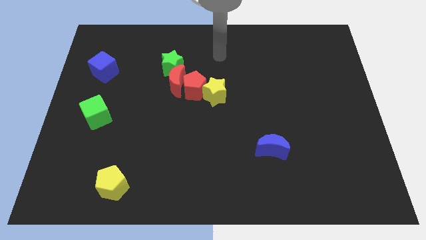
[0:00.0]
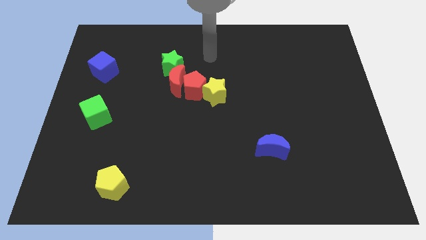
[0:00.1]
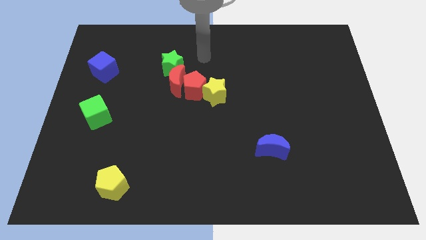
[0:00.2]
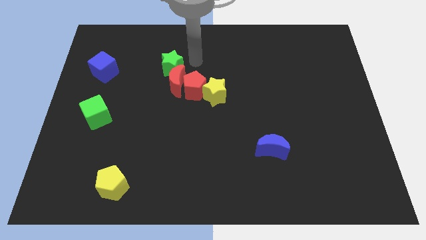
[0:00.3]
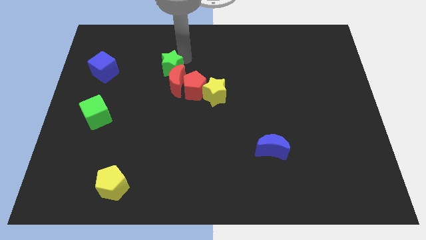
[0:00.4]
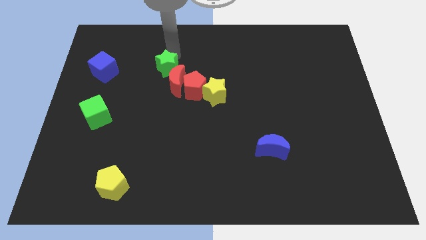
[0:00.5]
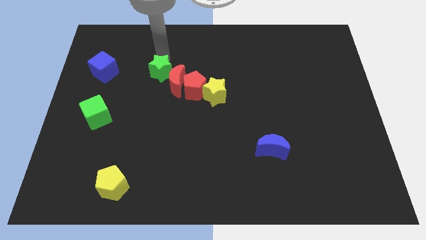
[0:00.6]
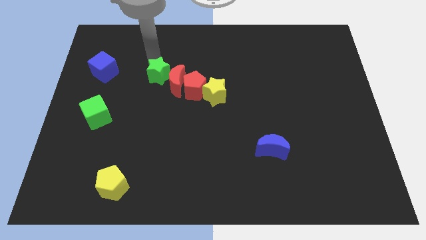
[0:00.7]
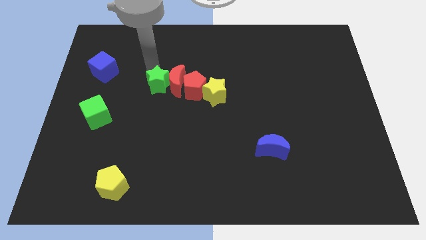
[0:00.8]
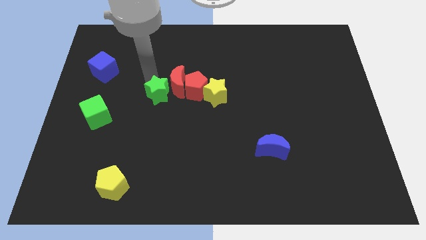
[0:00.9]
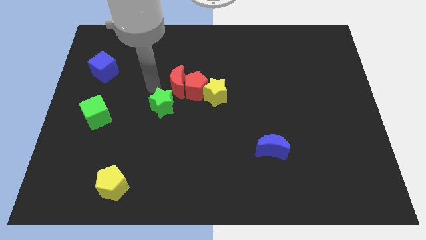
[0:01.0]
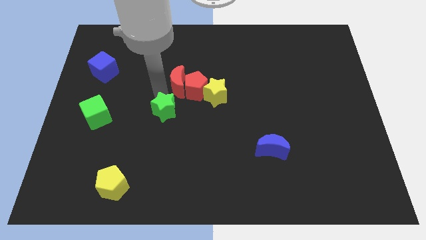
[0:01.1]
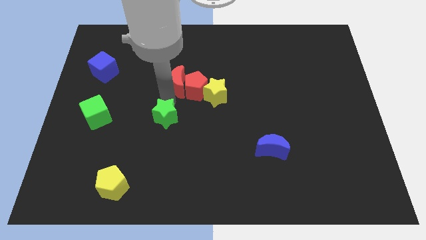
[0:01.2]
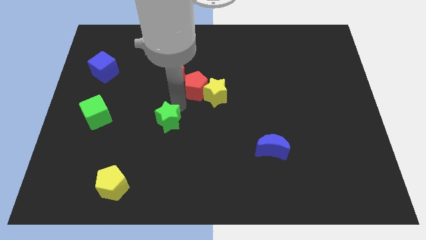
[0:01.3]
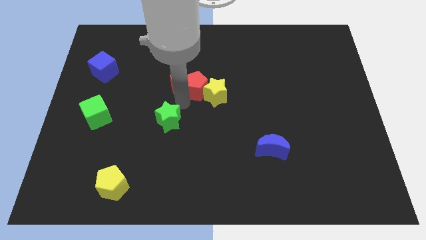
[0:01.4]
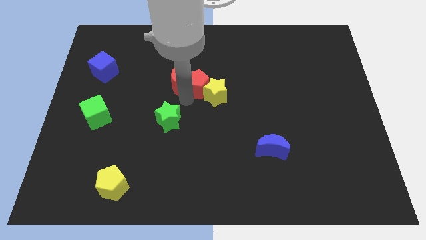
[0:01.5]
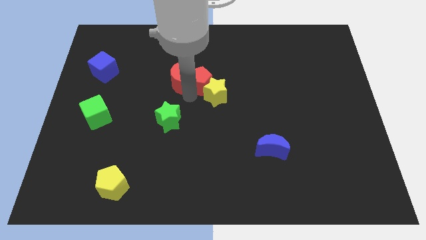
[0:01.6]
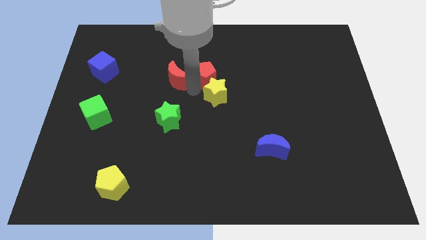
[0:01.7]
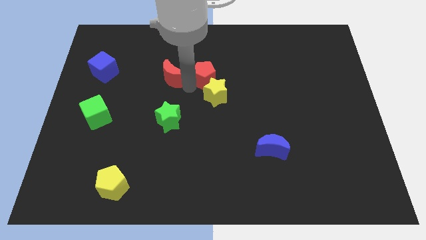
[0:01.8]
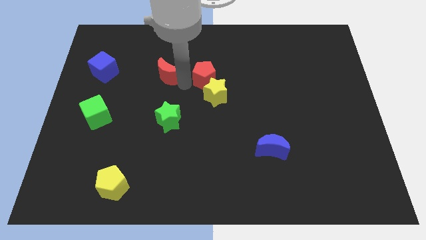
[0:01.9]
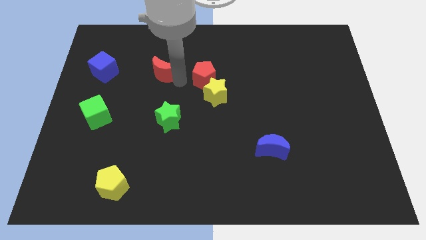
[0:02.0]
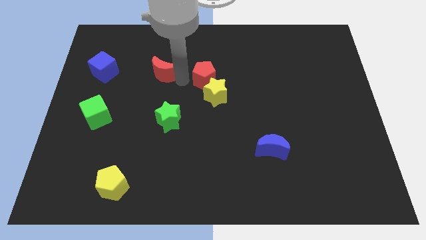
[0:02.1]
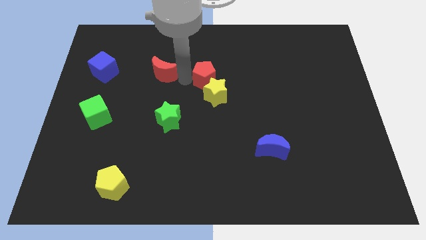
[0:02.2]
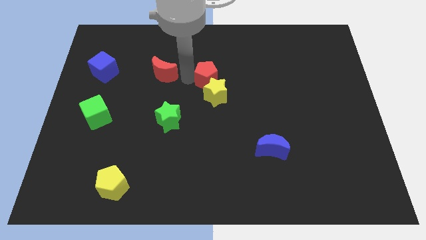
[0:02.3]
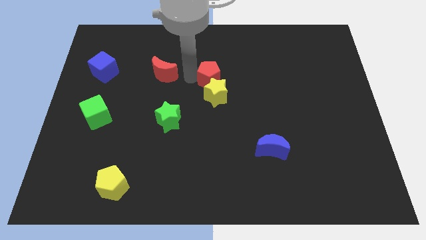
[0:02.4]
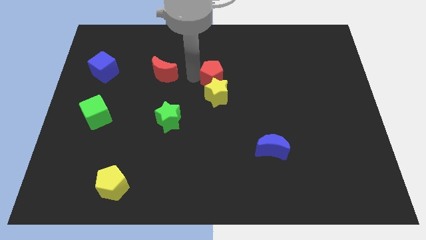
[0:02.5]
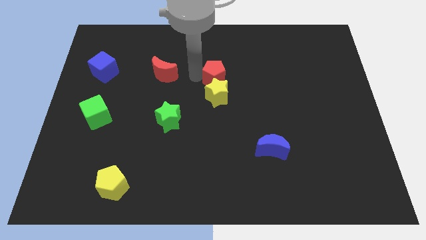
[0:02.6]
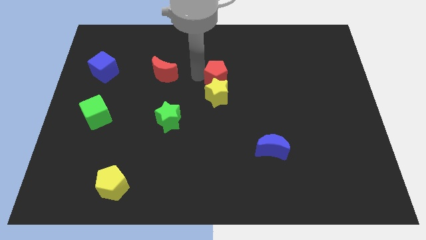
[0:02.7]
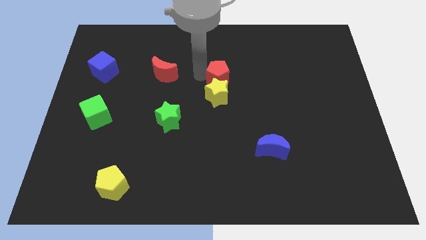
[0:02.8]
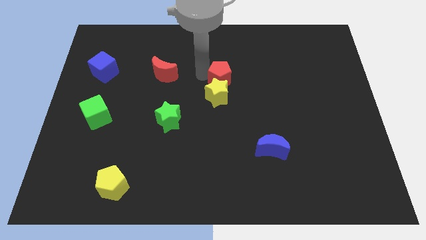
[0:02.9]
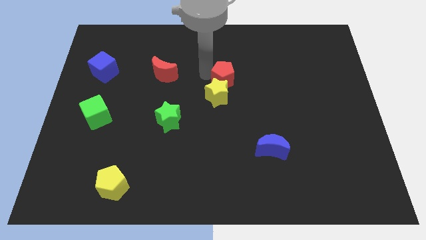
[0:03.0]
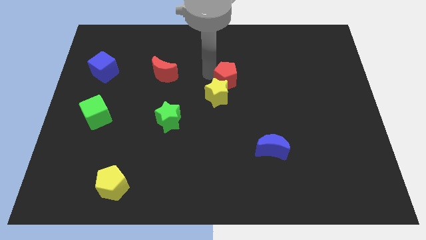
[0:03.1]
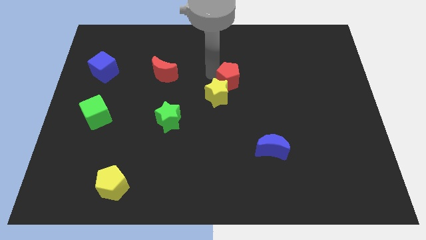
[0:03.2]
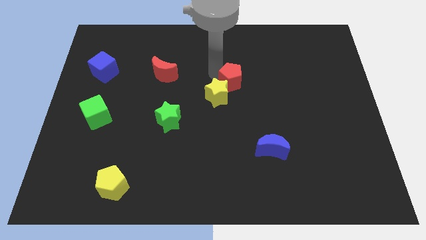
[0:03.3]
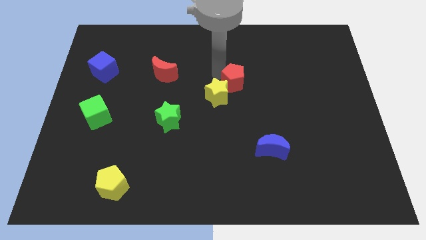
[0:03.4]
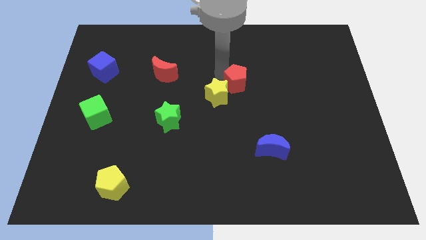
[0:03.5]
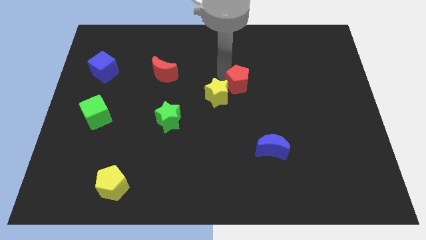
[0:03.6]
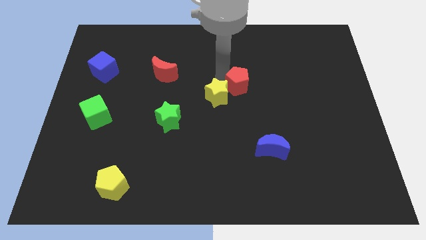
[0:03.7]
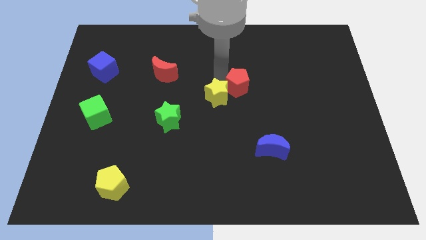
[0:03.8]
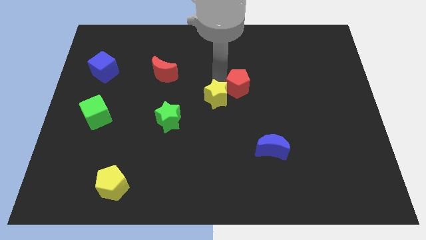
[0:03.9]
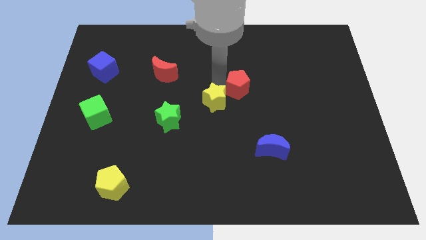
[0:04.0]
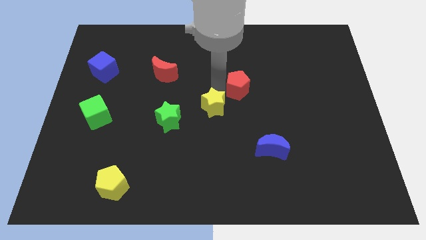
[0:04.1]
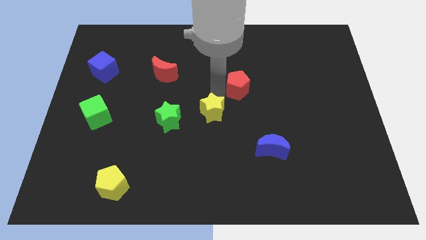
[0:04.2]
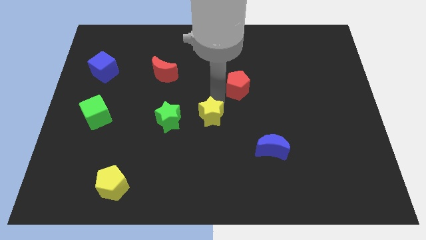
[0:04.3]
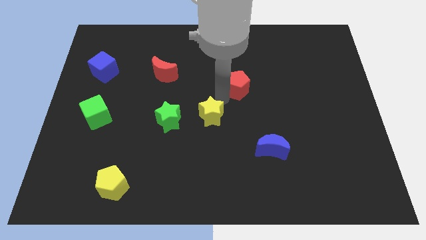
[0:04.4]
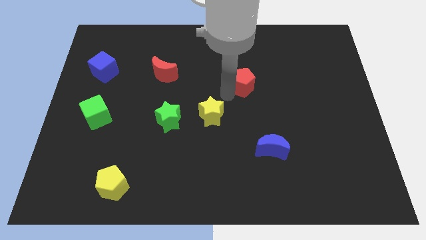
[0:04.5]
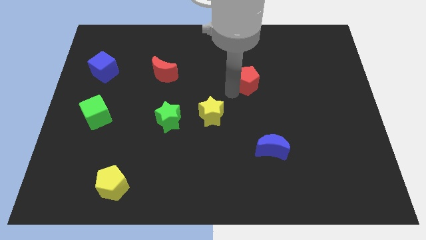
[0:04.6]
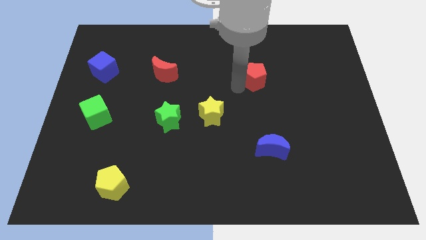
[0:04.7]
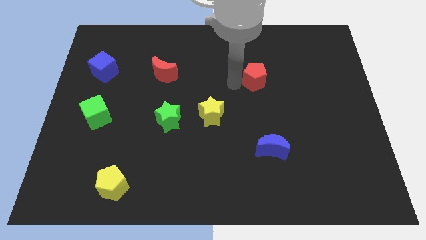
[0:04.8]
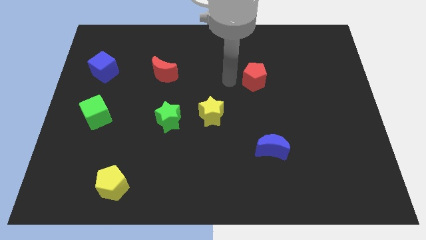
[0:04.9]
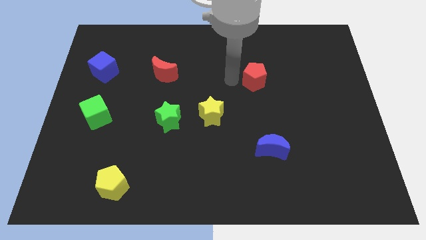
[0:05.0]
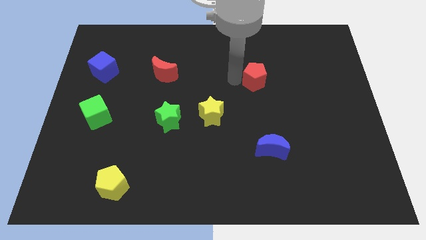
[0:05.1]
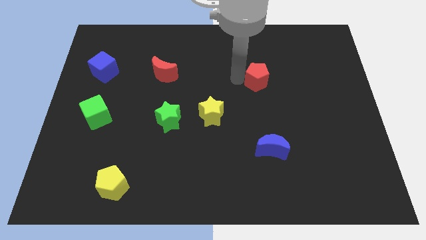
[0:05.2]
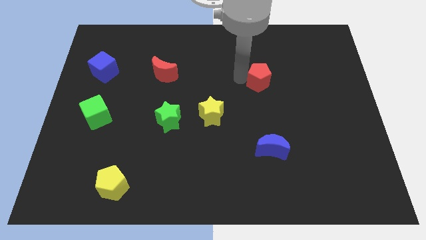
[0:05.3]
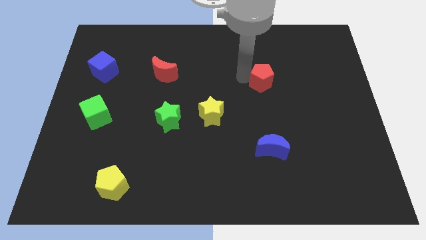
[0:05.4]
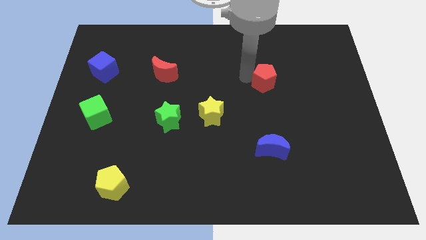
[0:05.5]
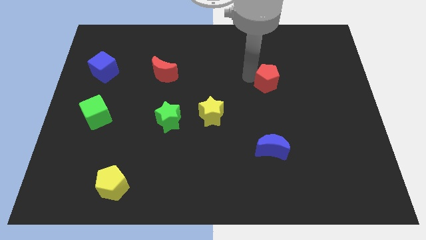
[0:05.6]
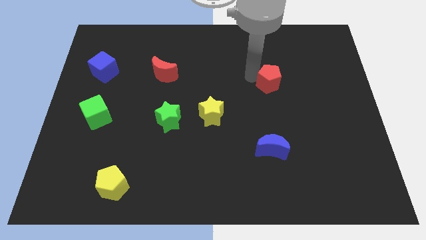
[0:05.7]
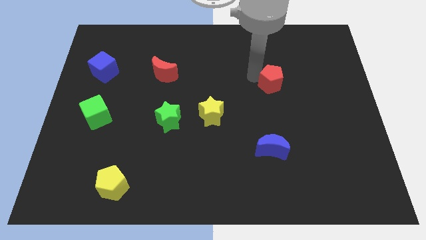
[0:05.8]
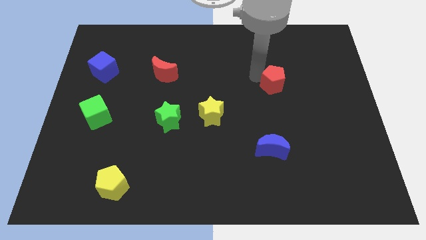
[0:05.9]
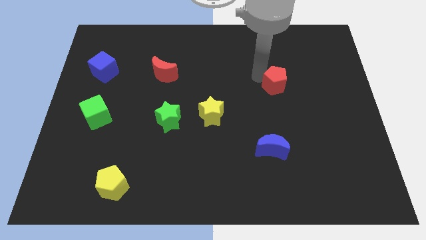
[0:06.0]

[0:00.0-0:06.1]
push the red pentagon right

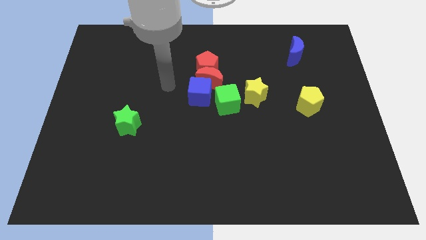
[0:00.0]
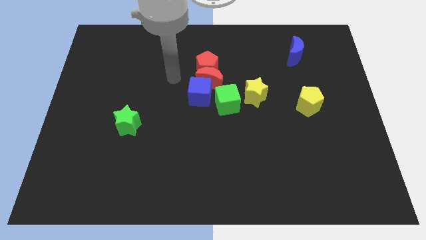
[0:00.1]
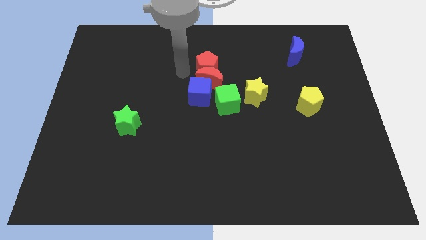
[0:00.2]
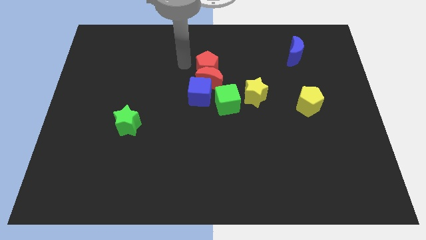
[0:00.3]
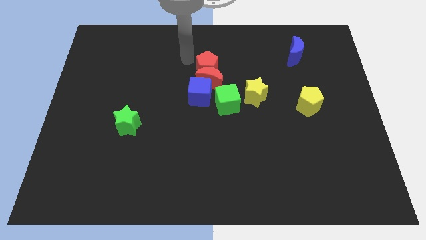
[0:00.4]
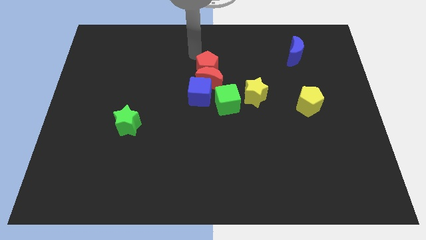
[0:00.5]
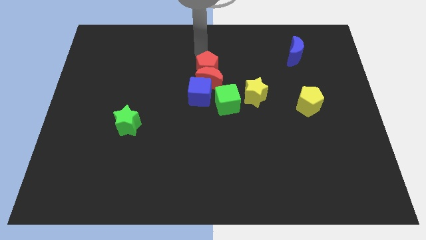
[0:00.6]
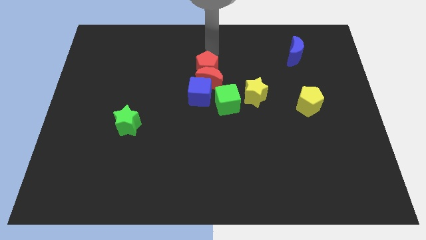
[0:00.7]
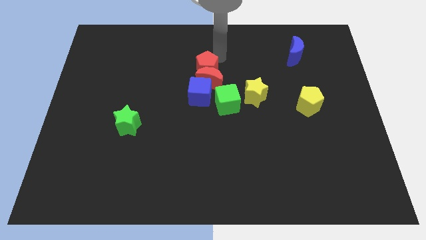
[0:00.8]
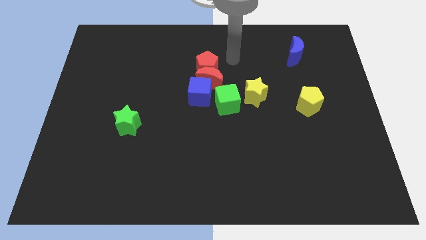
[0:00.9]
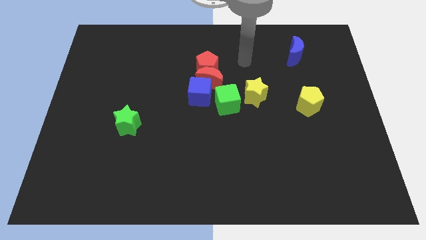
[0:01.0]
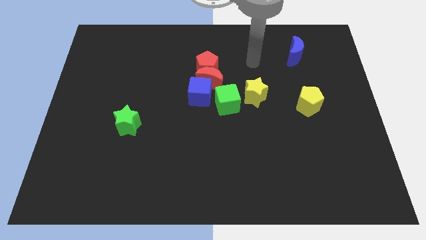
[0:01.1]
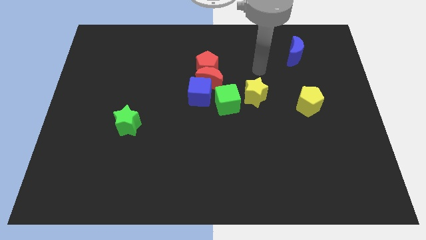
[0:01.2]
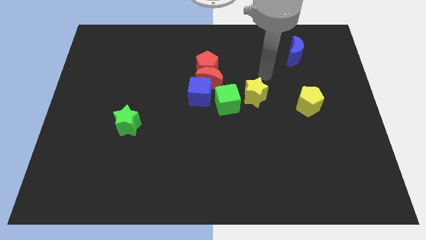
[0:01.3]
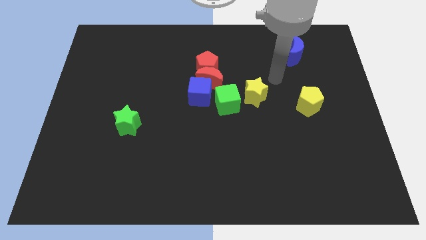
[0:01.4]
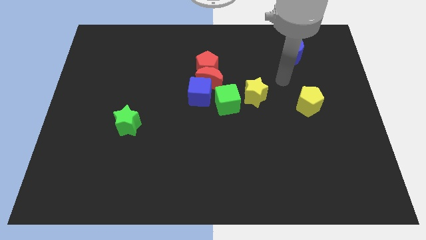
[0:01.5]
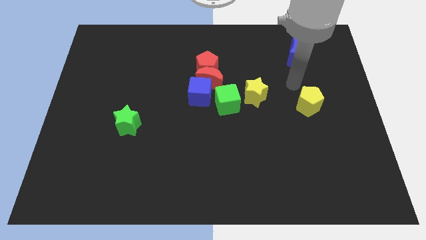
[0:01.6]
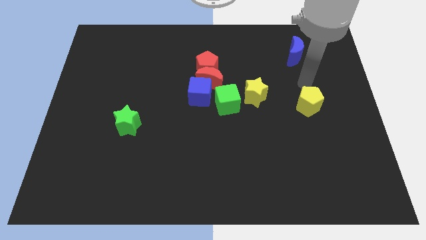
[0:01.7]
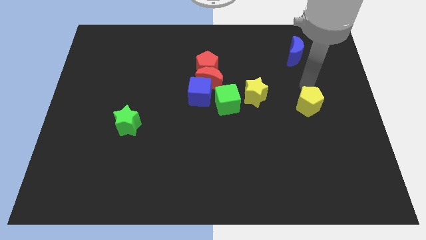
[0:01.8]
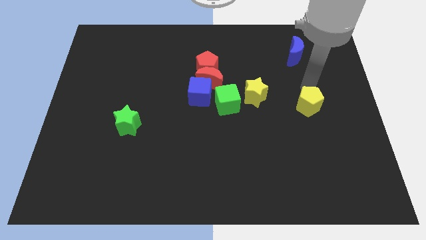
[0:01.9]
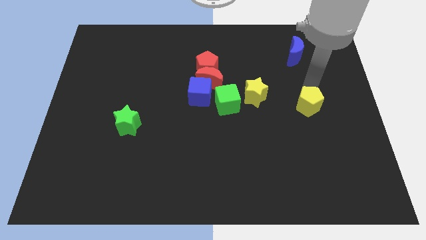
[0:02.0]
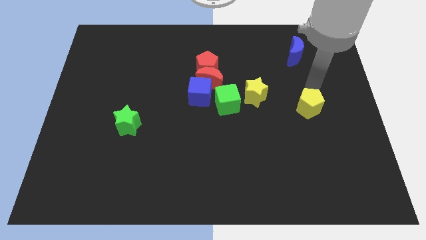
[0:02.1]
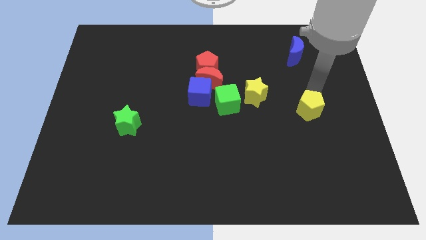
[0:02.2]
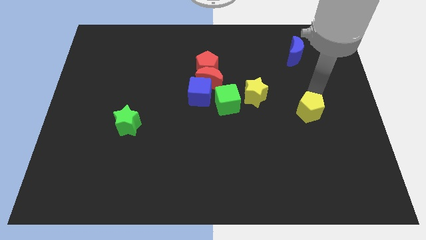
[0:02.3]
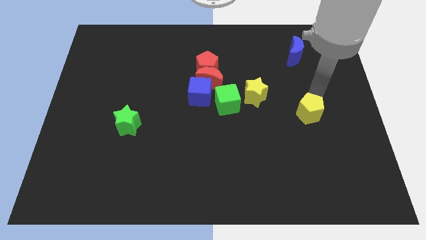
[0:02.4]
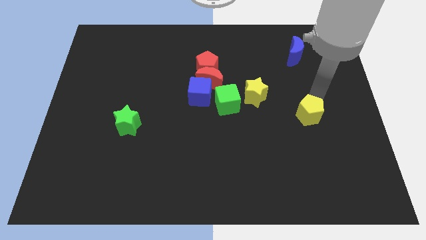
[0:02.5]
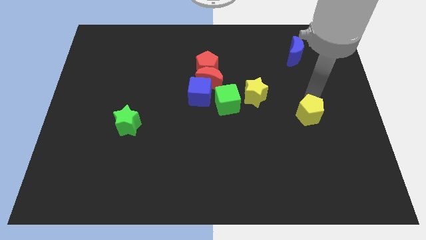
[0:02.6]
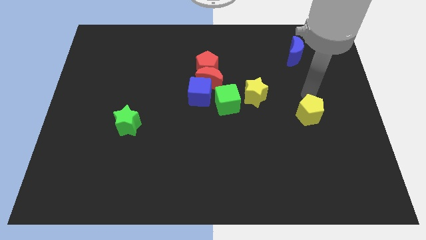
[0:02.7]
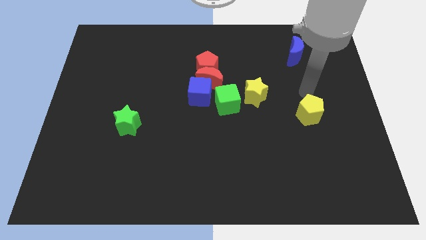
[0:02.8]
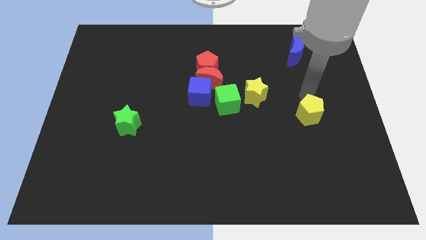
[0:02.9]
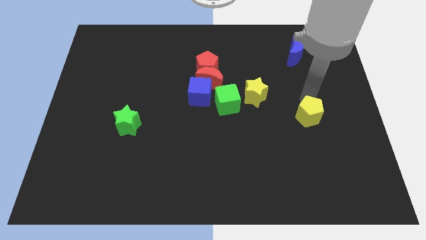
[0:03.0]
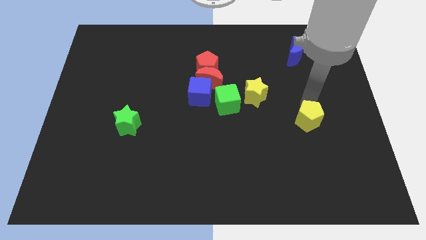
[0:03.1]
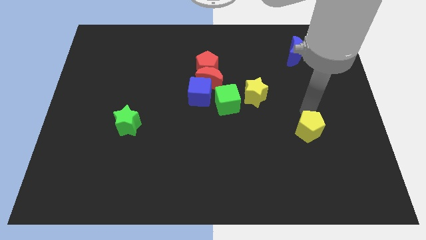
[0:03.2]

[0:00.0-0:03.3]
push the yellow pentagon a bit downwards
